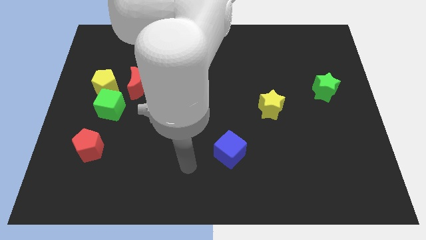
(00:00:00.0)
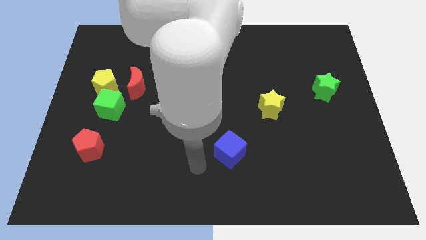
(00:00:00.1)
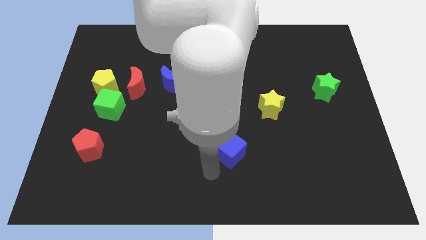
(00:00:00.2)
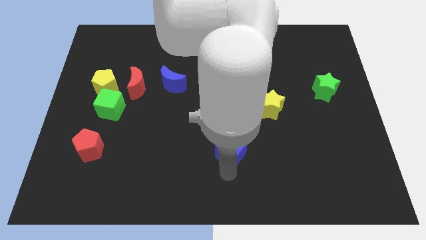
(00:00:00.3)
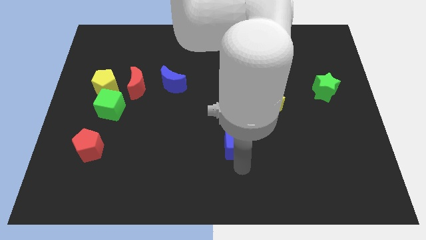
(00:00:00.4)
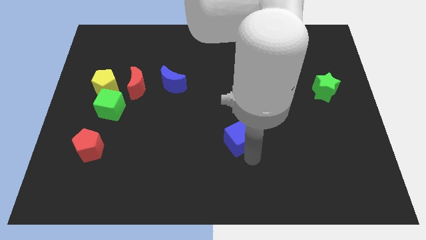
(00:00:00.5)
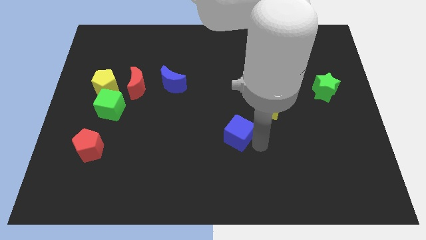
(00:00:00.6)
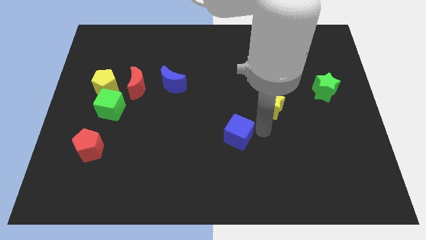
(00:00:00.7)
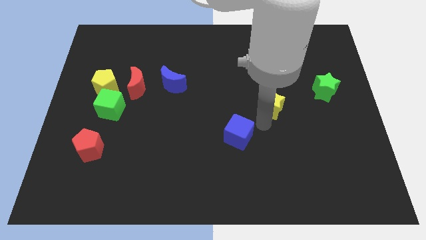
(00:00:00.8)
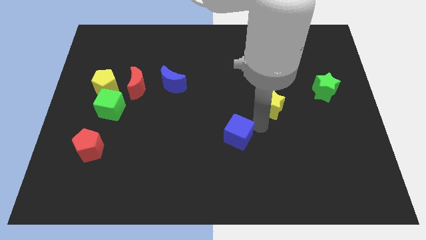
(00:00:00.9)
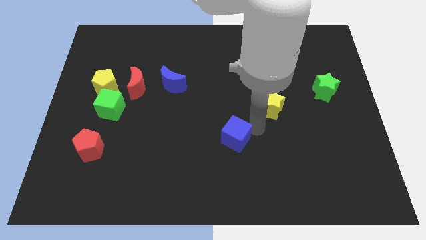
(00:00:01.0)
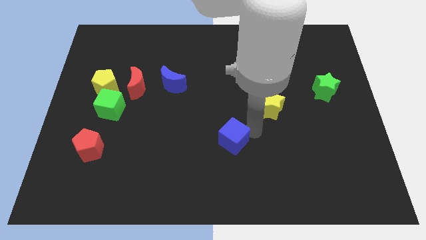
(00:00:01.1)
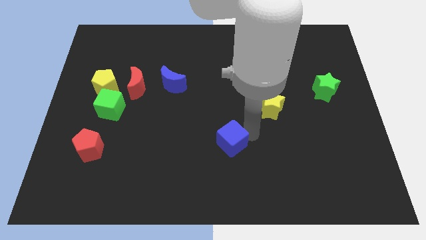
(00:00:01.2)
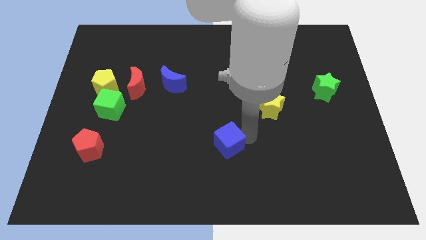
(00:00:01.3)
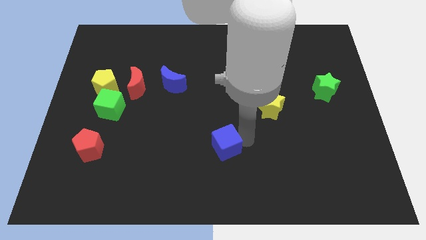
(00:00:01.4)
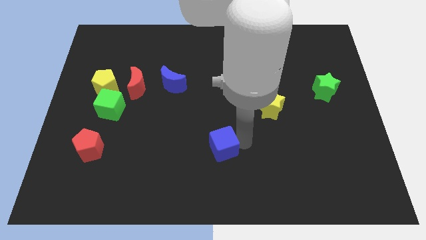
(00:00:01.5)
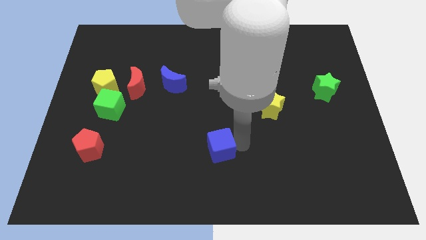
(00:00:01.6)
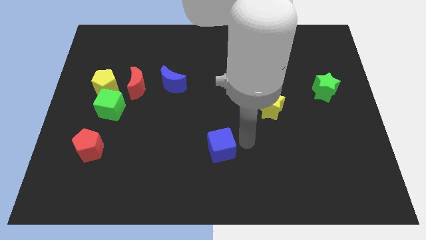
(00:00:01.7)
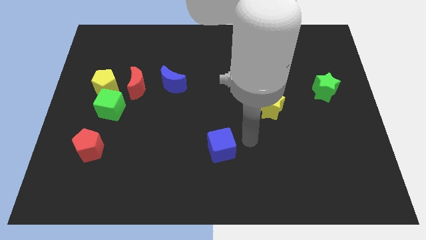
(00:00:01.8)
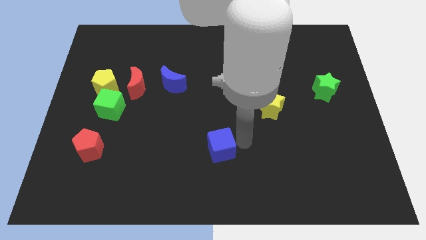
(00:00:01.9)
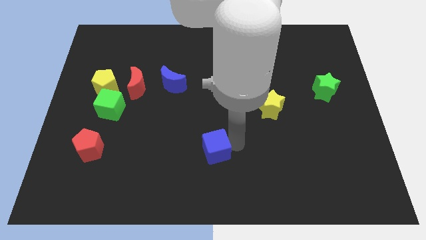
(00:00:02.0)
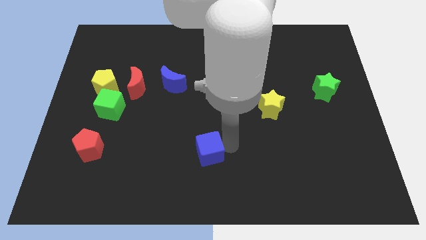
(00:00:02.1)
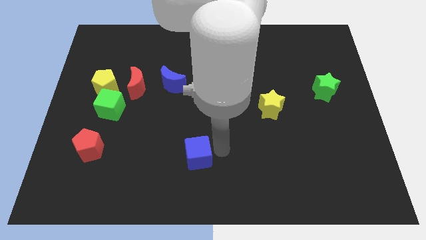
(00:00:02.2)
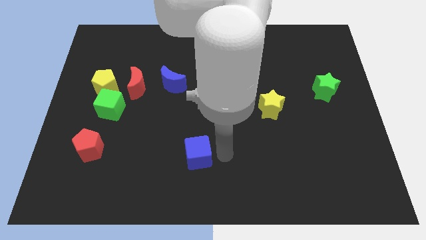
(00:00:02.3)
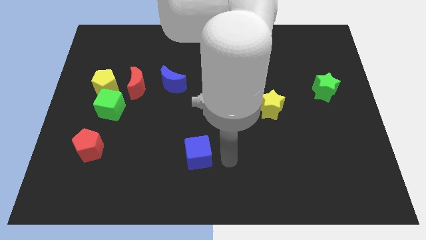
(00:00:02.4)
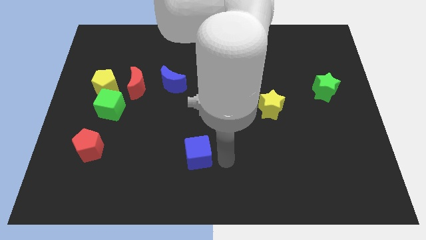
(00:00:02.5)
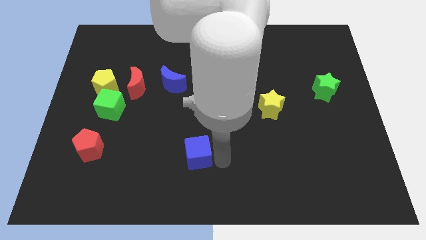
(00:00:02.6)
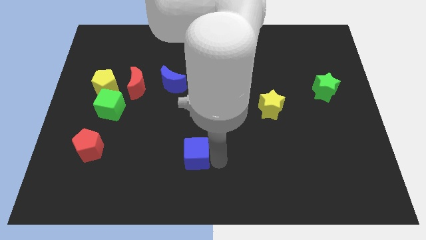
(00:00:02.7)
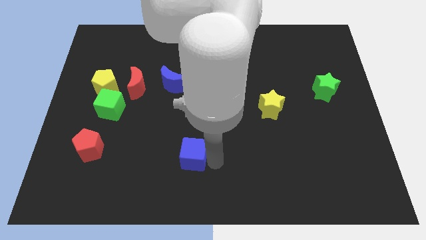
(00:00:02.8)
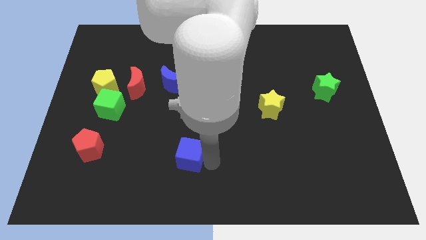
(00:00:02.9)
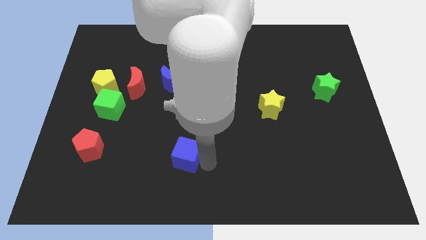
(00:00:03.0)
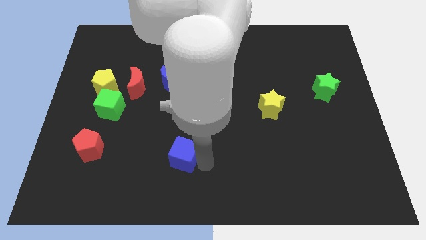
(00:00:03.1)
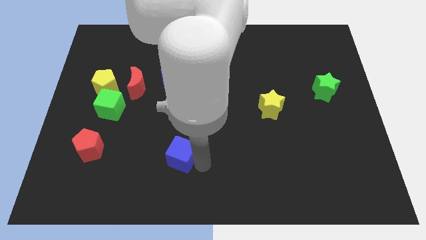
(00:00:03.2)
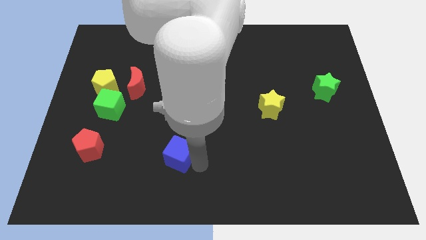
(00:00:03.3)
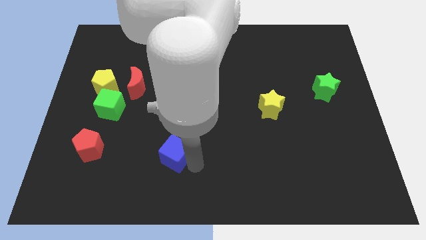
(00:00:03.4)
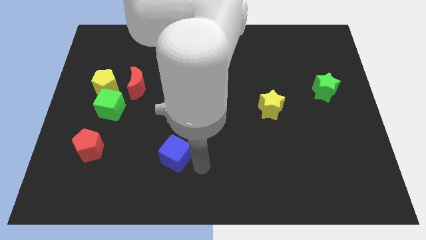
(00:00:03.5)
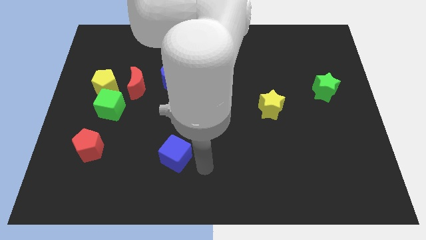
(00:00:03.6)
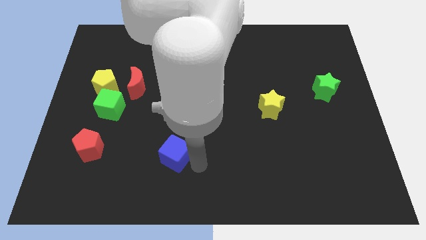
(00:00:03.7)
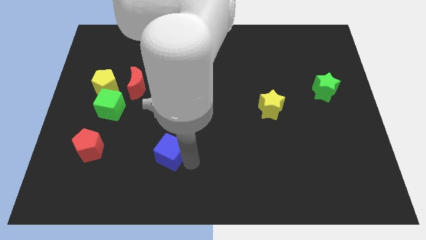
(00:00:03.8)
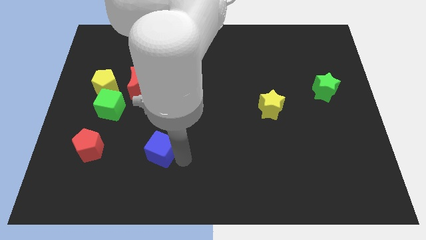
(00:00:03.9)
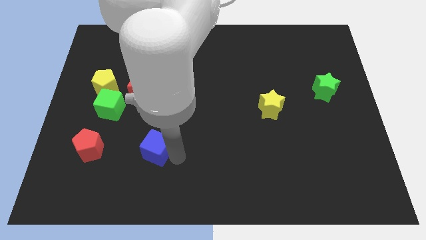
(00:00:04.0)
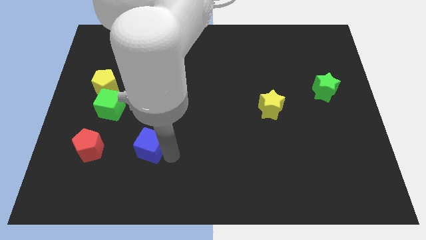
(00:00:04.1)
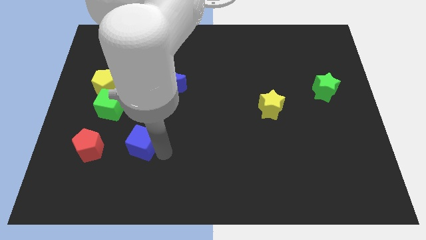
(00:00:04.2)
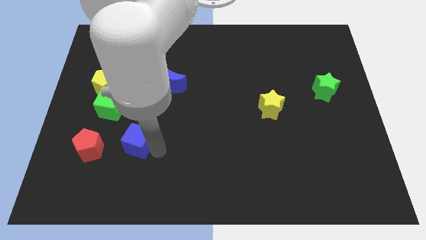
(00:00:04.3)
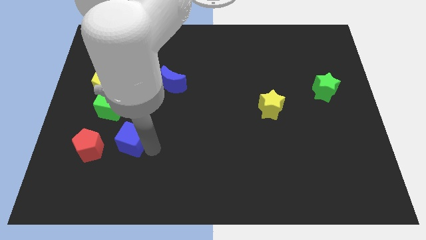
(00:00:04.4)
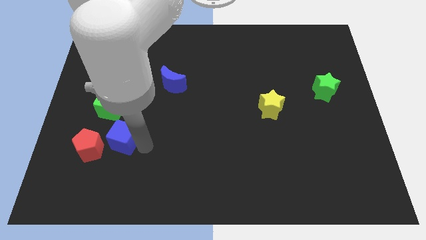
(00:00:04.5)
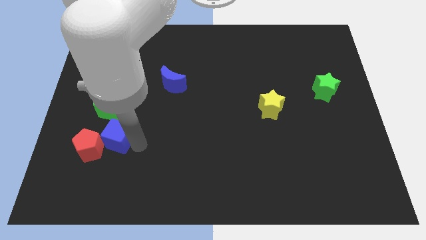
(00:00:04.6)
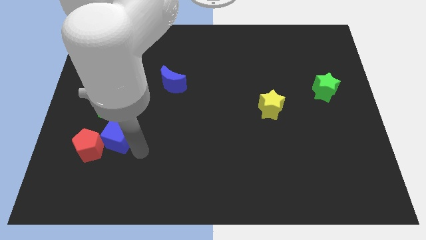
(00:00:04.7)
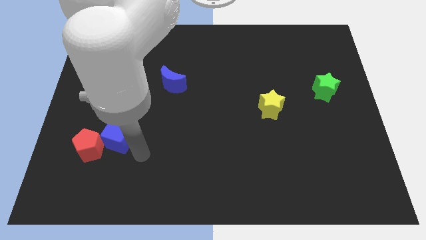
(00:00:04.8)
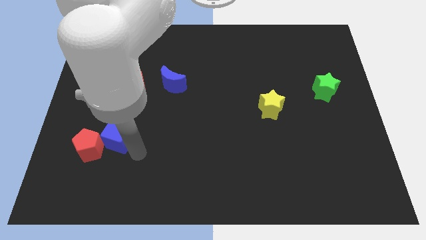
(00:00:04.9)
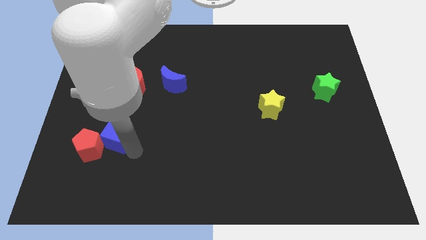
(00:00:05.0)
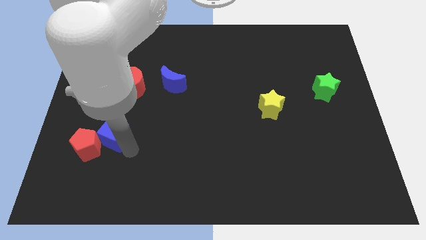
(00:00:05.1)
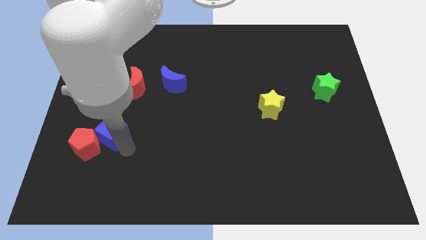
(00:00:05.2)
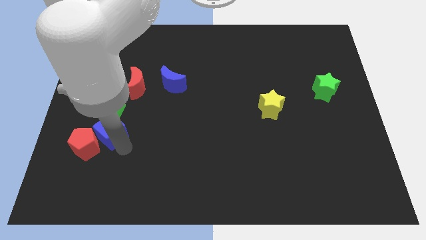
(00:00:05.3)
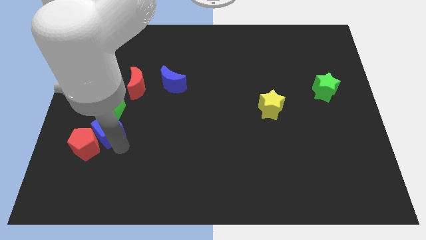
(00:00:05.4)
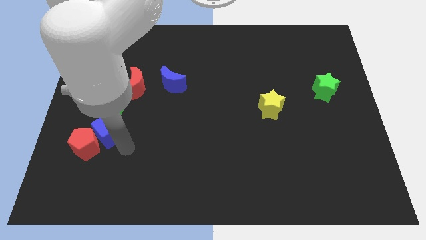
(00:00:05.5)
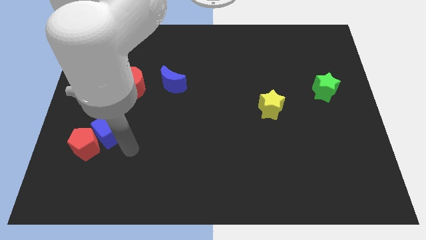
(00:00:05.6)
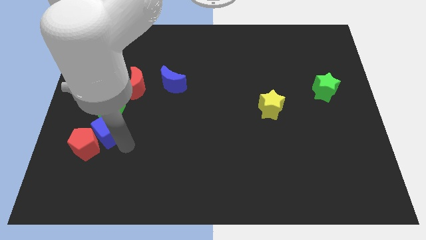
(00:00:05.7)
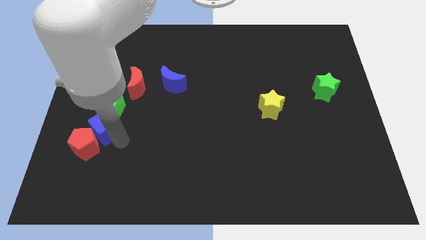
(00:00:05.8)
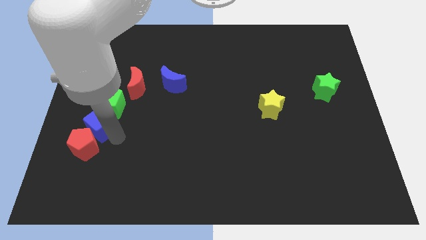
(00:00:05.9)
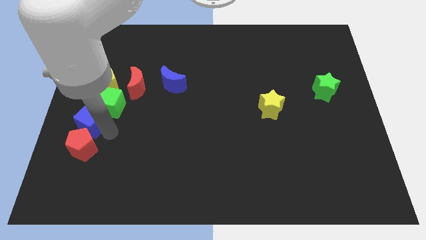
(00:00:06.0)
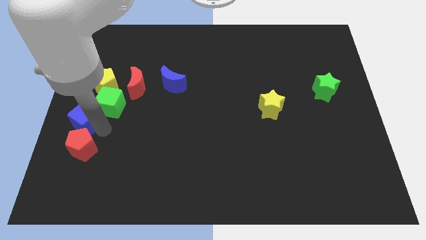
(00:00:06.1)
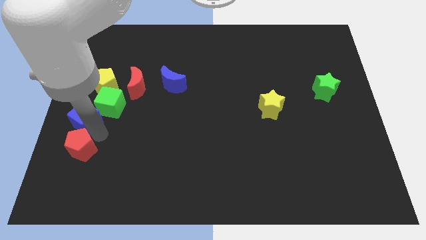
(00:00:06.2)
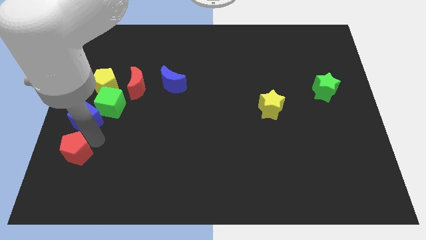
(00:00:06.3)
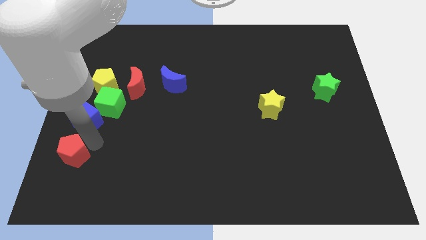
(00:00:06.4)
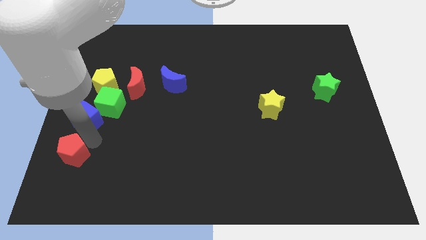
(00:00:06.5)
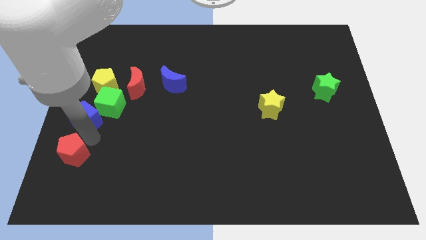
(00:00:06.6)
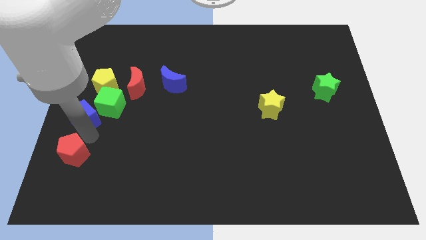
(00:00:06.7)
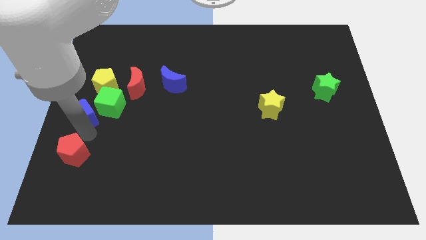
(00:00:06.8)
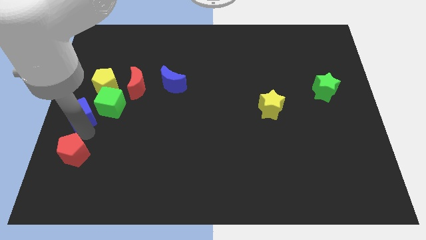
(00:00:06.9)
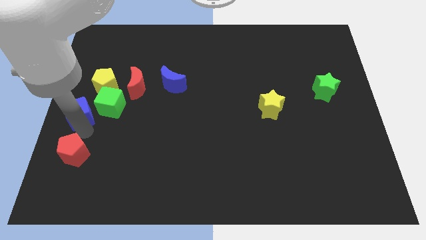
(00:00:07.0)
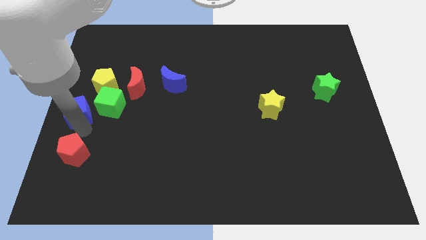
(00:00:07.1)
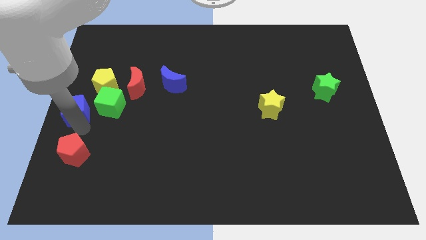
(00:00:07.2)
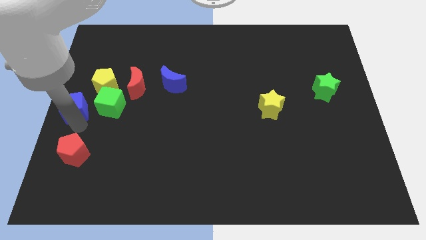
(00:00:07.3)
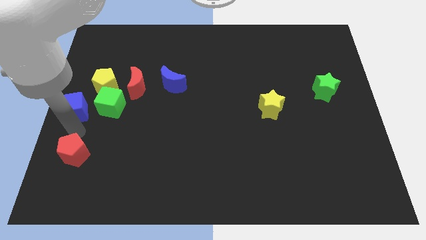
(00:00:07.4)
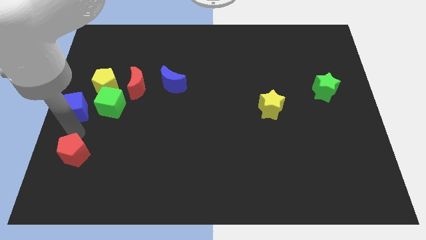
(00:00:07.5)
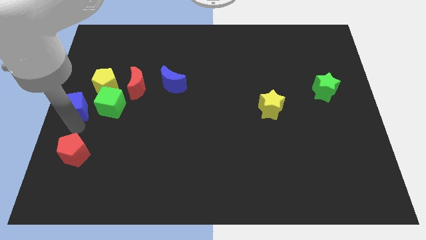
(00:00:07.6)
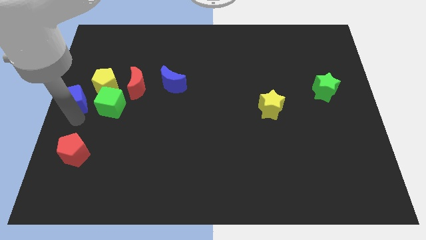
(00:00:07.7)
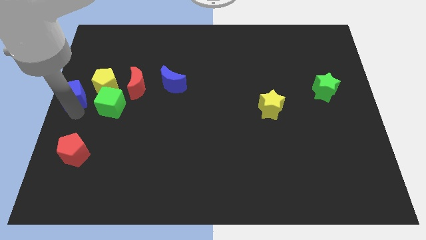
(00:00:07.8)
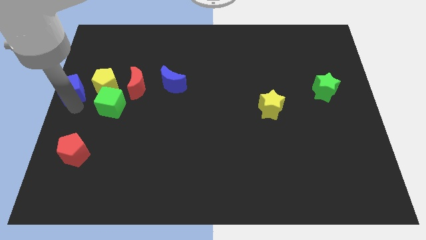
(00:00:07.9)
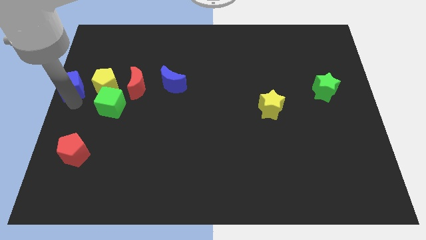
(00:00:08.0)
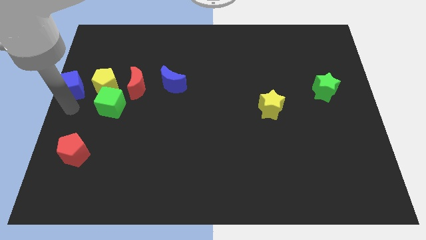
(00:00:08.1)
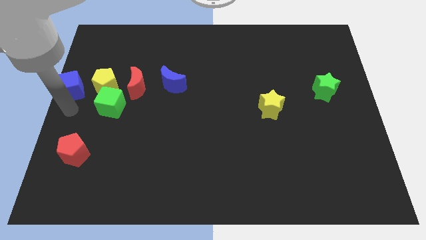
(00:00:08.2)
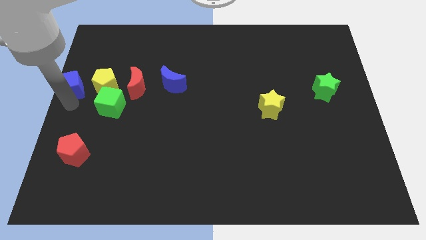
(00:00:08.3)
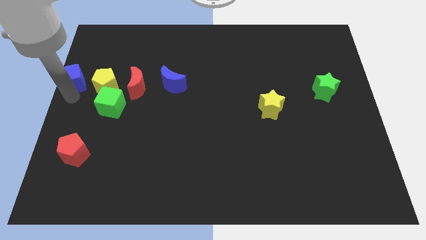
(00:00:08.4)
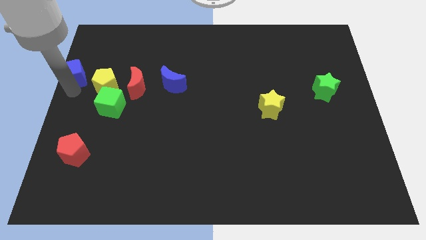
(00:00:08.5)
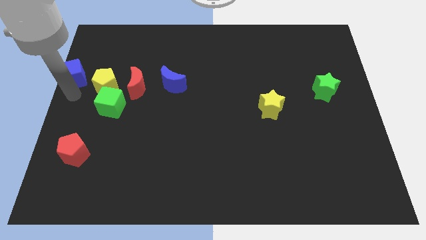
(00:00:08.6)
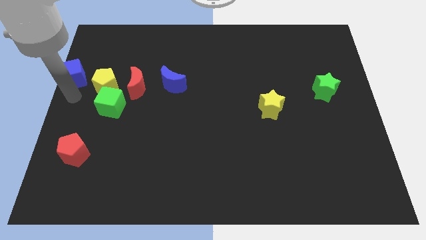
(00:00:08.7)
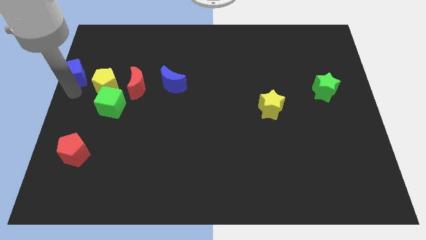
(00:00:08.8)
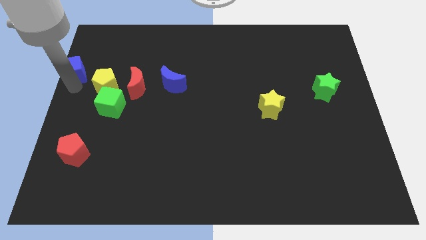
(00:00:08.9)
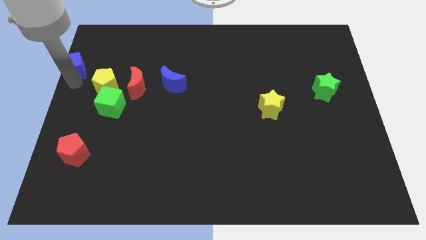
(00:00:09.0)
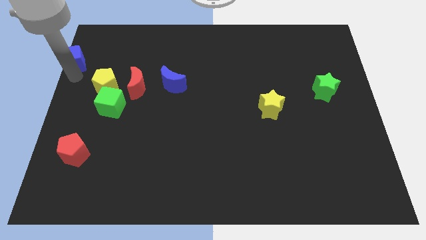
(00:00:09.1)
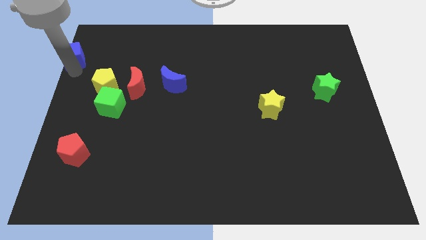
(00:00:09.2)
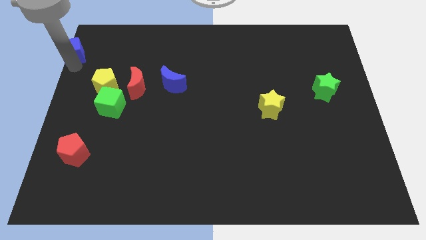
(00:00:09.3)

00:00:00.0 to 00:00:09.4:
put the blue cube to the top left corner
